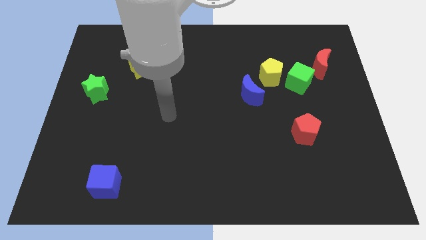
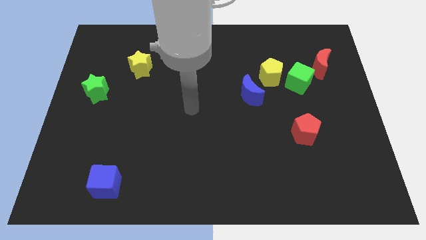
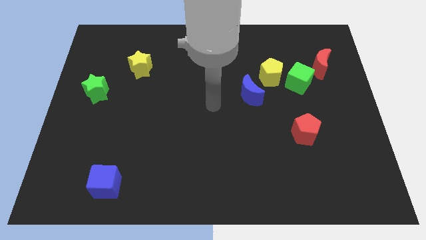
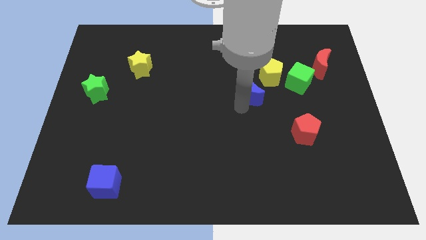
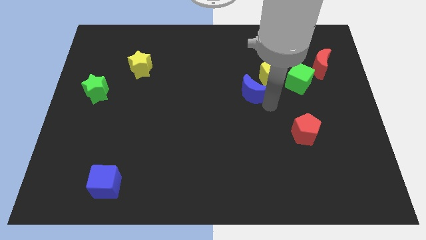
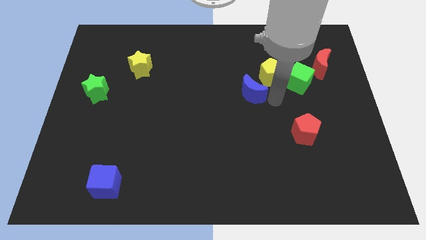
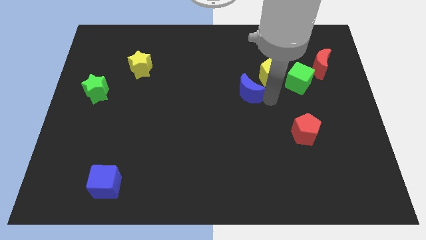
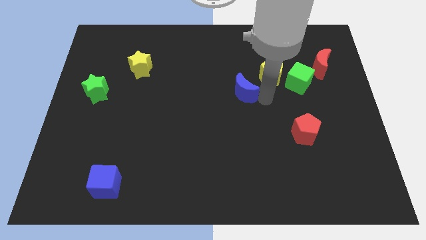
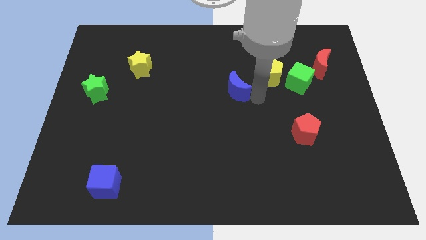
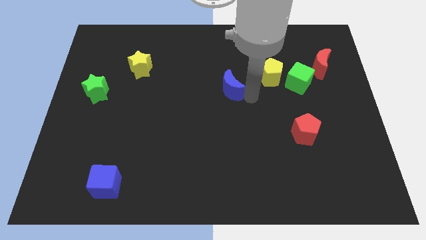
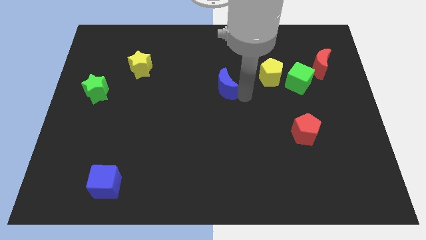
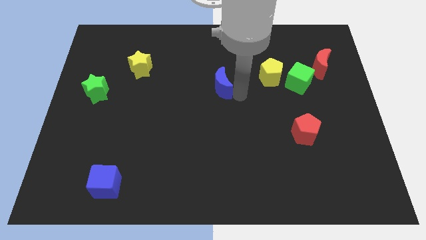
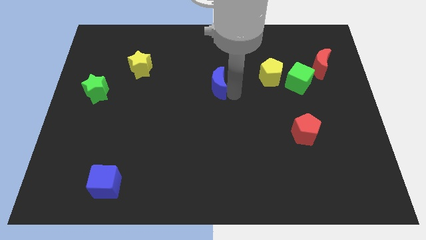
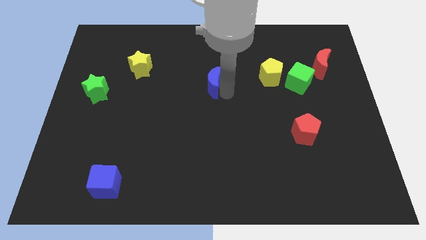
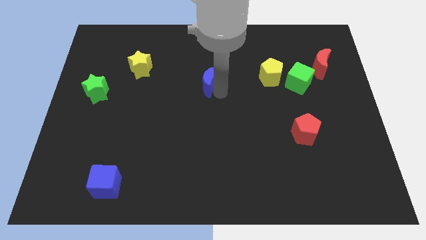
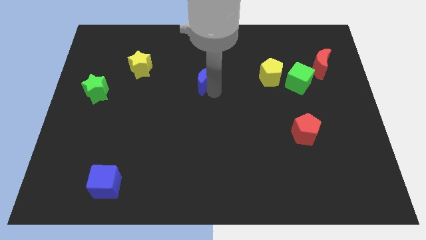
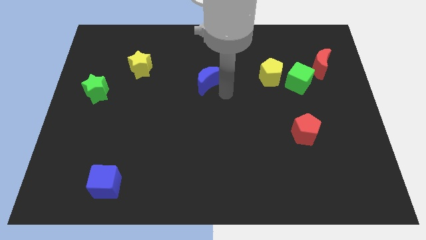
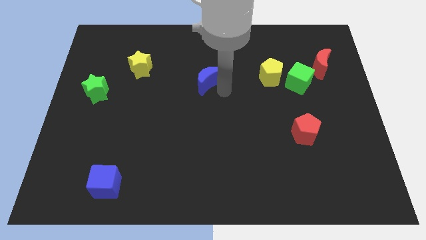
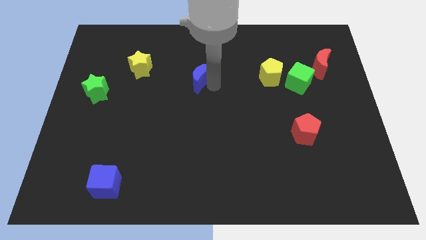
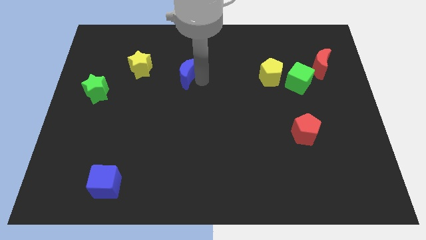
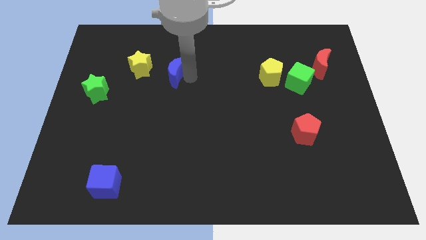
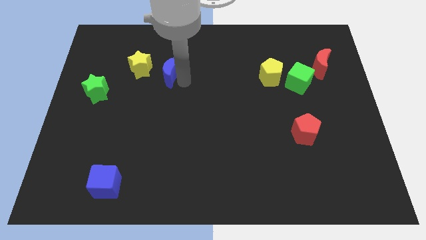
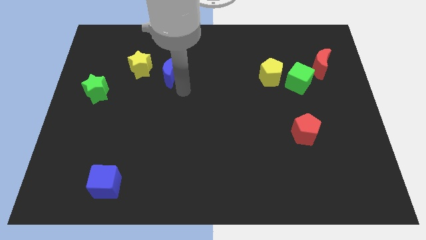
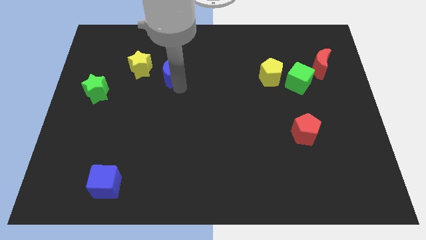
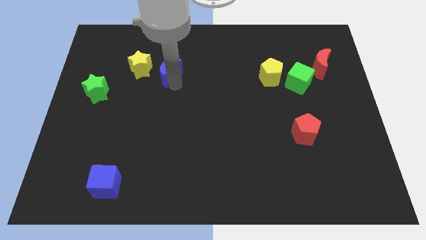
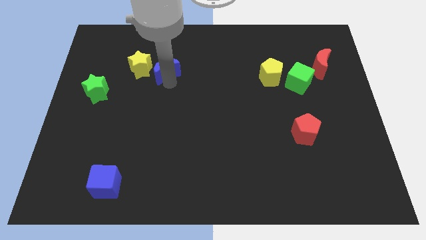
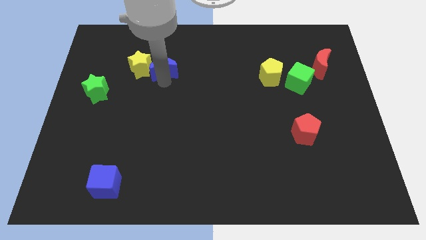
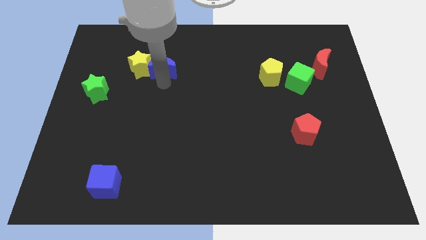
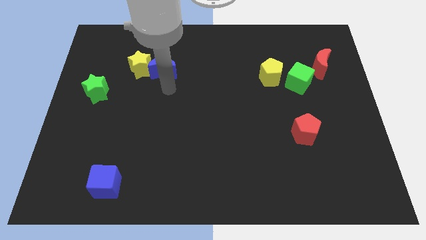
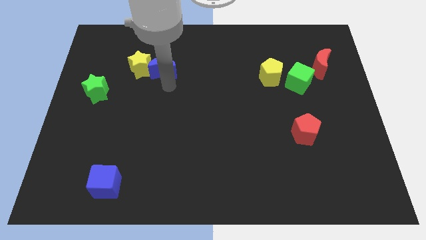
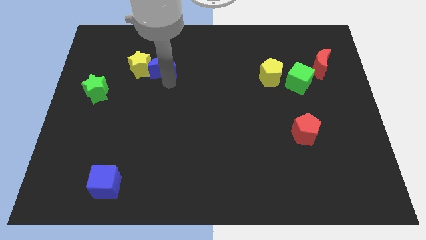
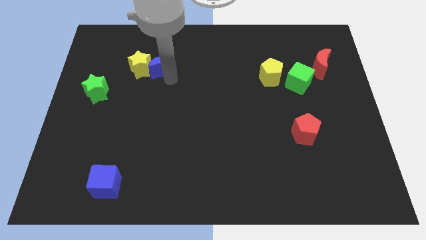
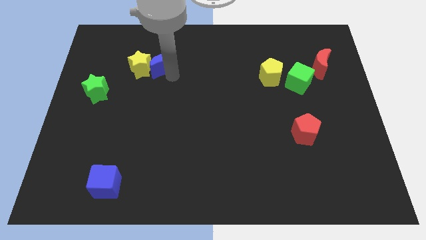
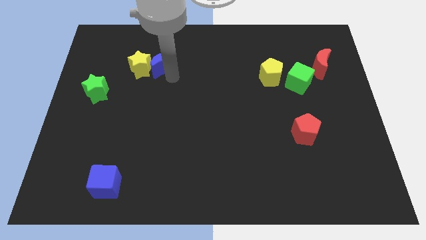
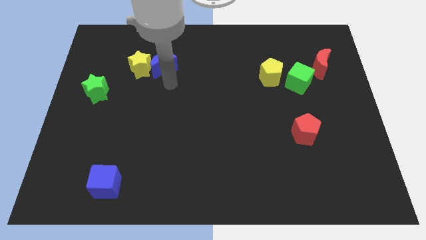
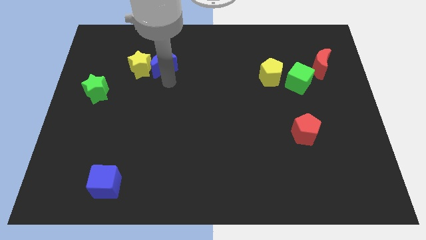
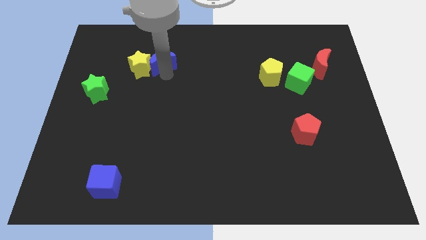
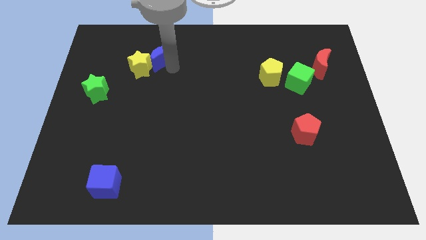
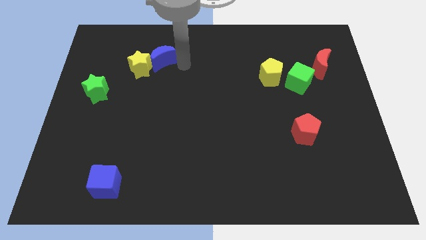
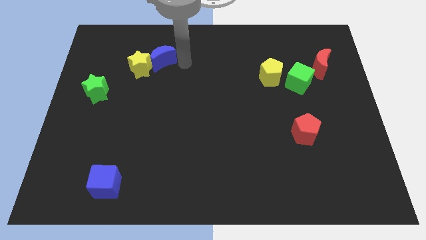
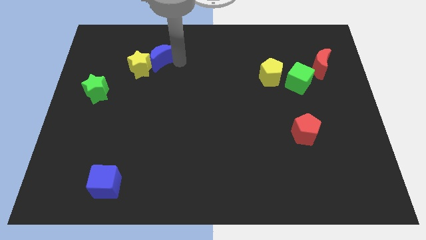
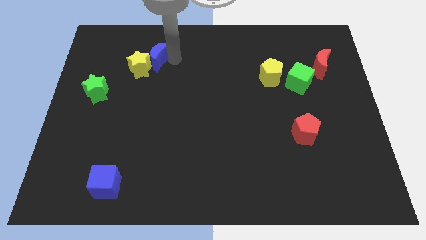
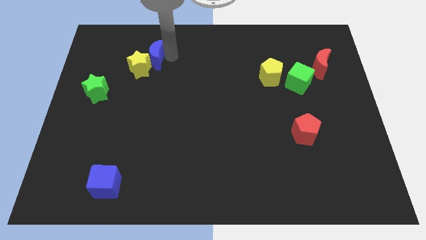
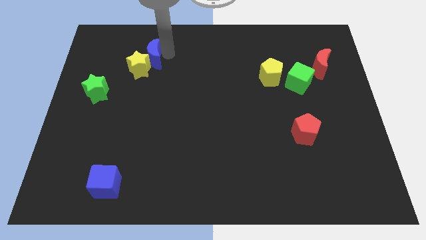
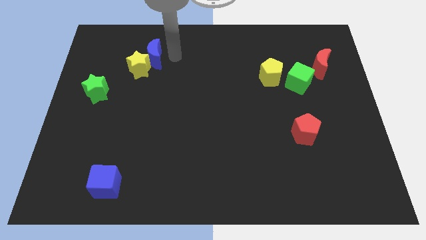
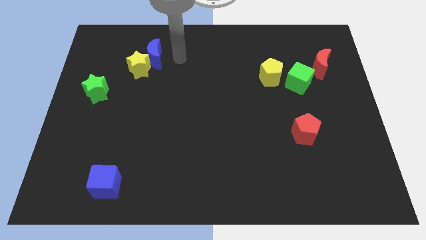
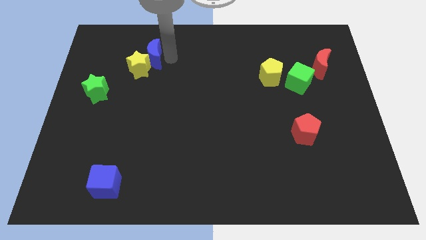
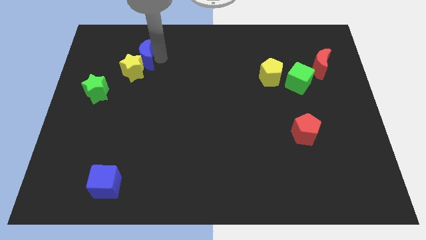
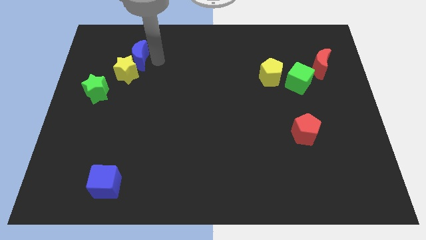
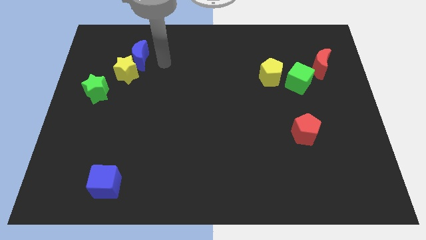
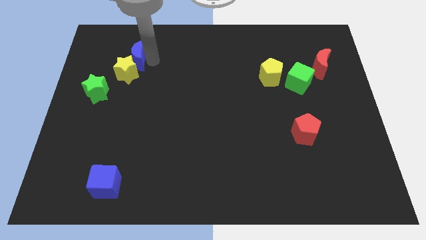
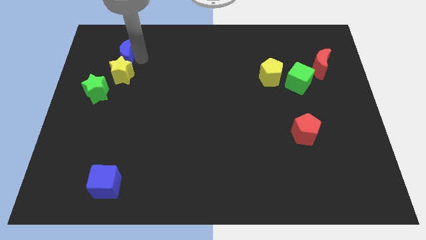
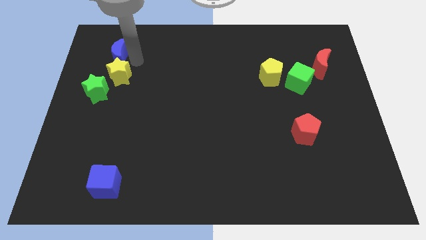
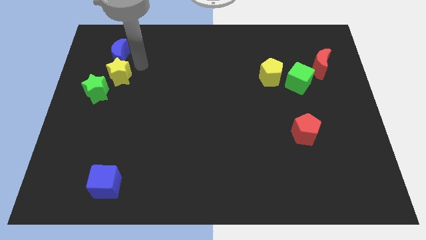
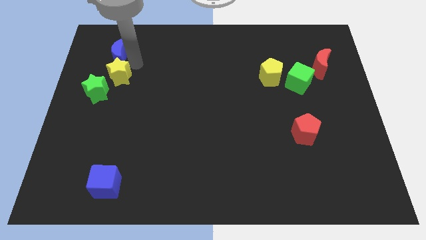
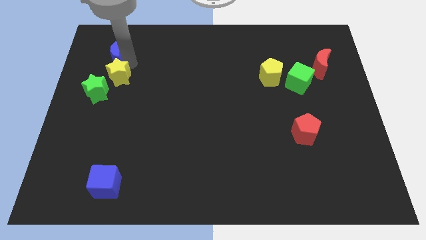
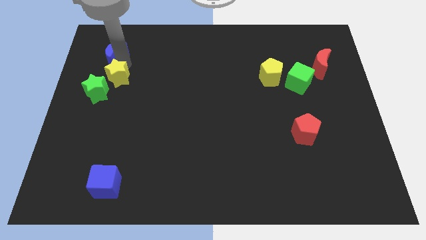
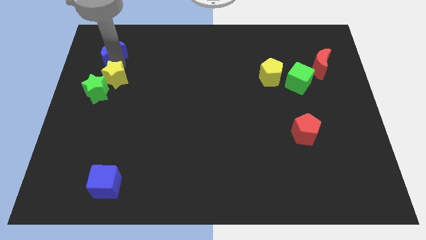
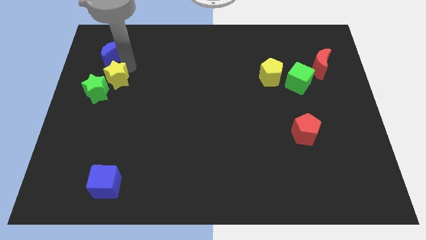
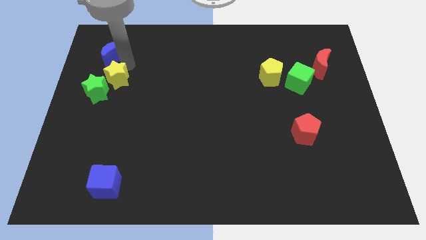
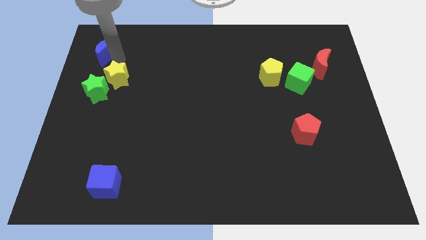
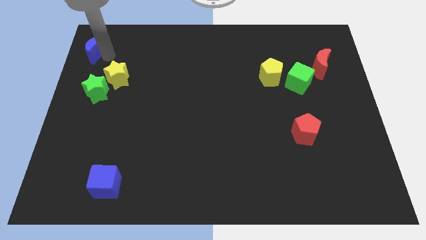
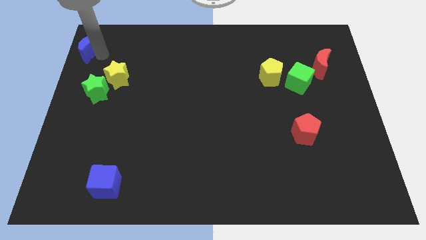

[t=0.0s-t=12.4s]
move the blue moon to the top left corner
